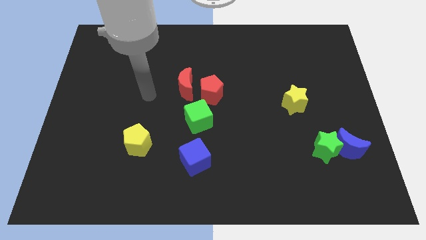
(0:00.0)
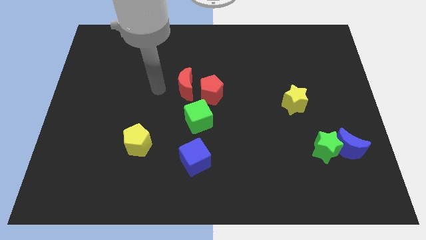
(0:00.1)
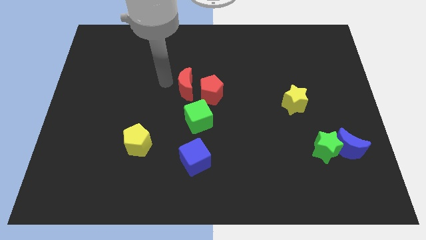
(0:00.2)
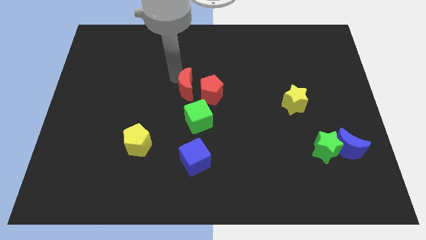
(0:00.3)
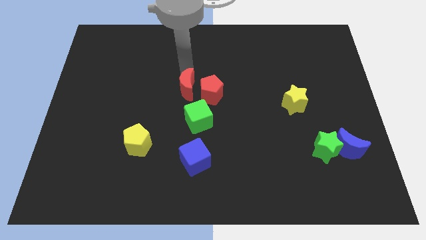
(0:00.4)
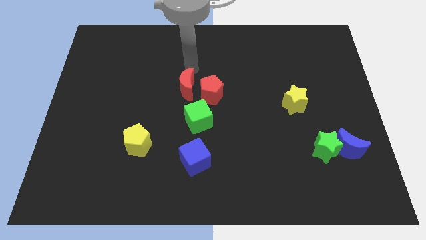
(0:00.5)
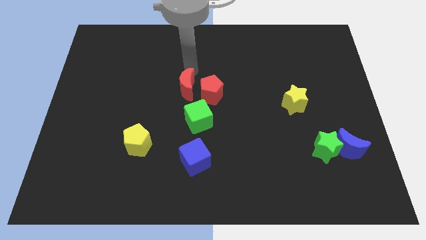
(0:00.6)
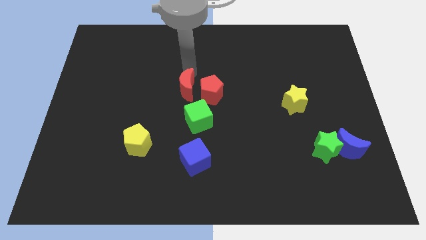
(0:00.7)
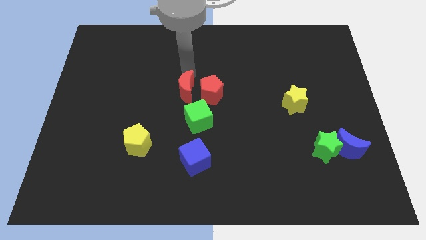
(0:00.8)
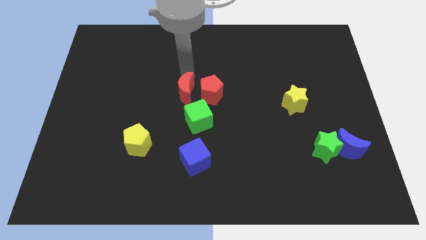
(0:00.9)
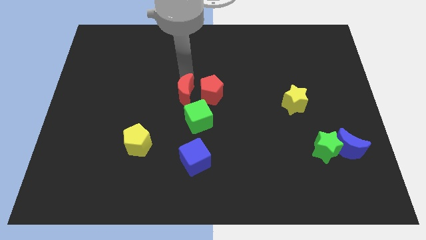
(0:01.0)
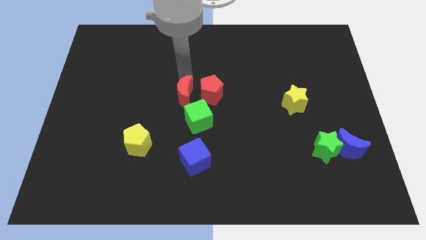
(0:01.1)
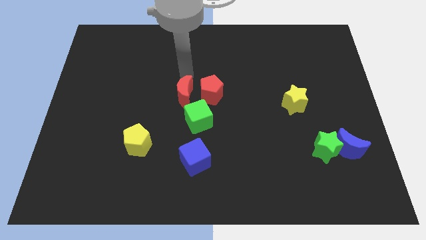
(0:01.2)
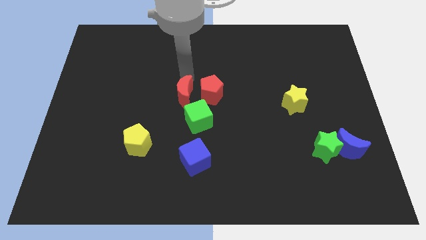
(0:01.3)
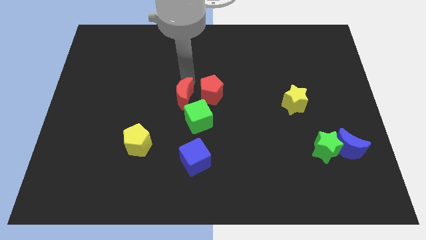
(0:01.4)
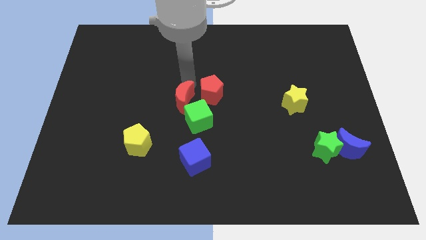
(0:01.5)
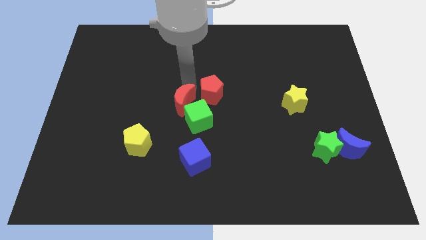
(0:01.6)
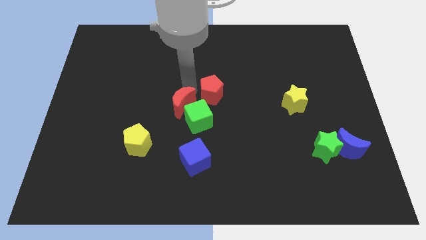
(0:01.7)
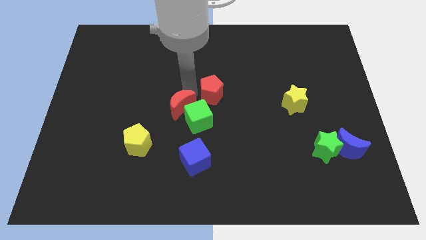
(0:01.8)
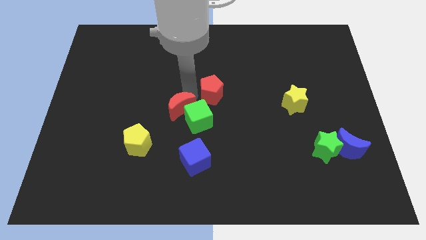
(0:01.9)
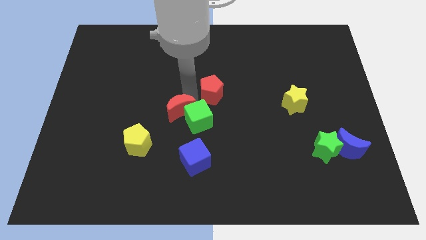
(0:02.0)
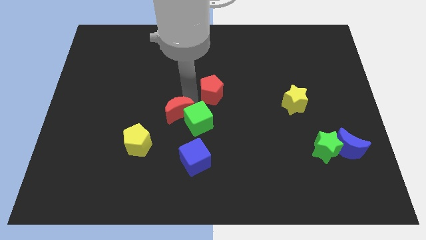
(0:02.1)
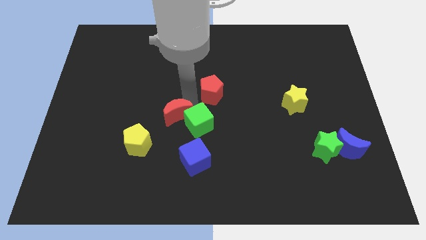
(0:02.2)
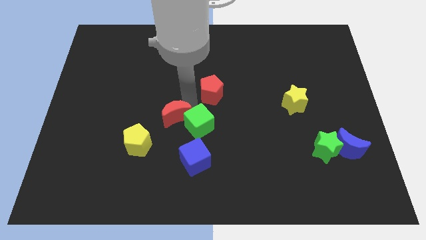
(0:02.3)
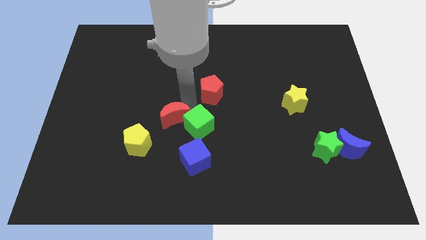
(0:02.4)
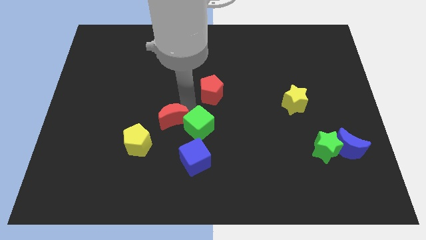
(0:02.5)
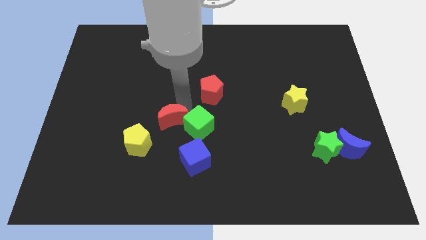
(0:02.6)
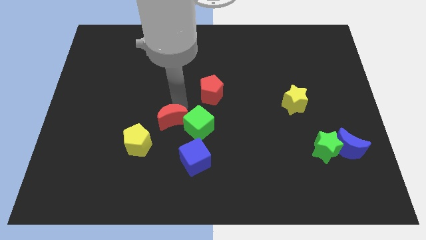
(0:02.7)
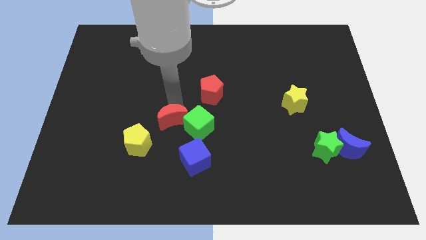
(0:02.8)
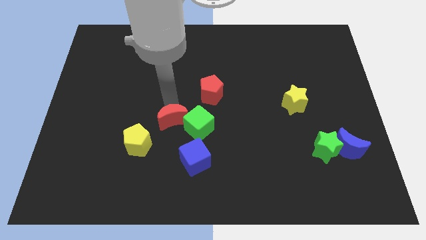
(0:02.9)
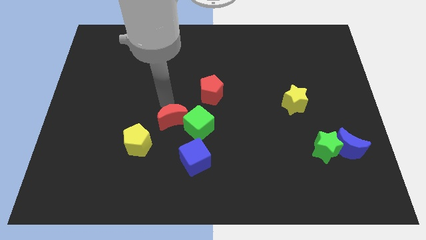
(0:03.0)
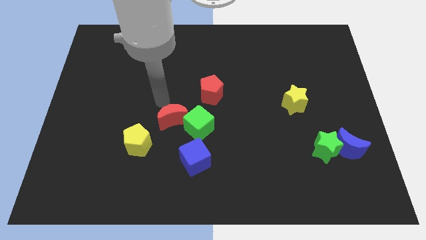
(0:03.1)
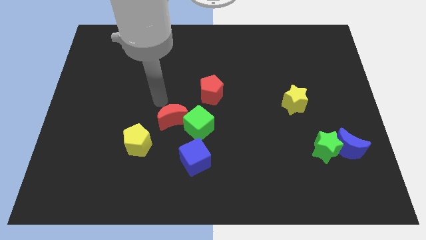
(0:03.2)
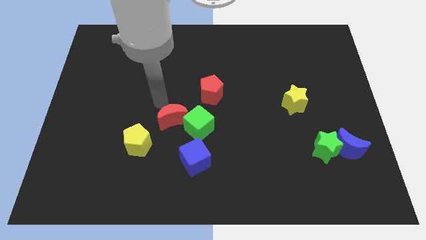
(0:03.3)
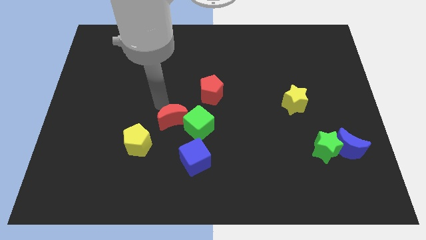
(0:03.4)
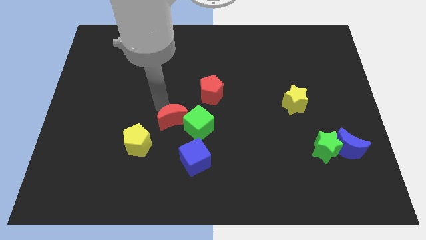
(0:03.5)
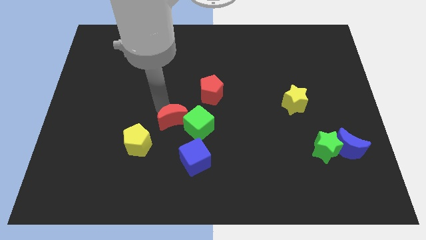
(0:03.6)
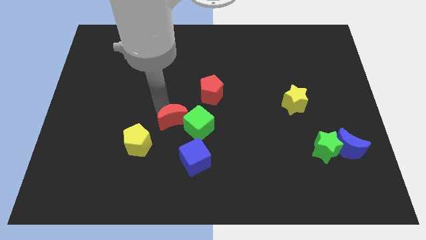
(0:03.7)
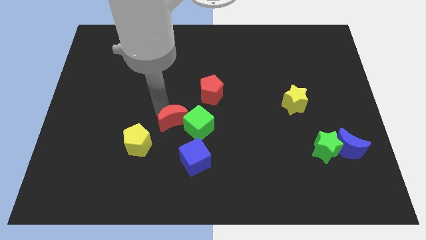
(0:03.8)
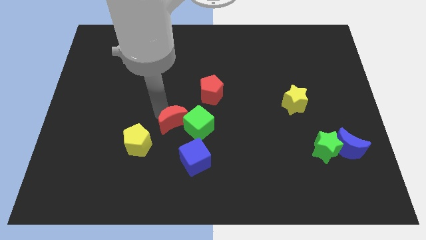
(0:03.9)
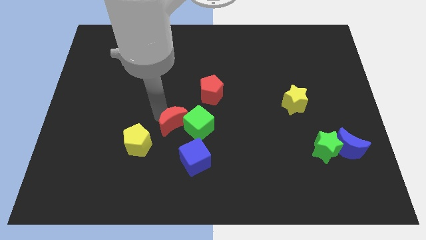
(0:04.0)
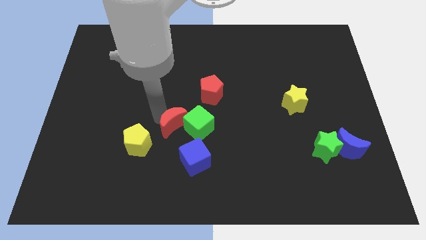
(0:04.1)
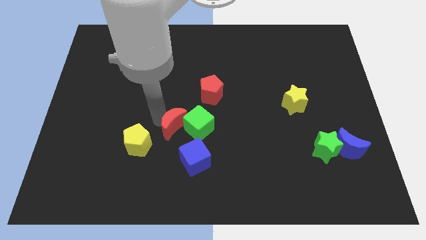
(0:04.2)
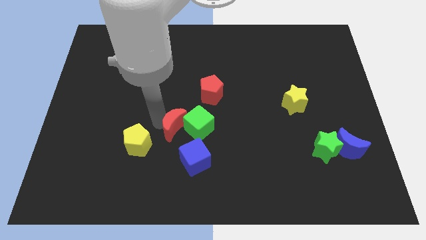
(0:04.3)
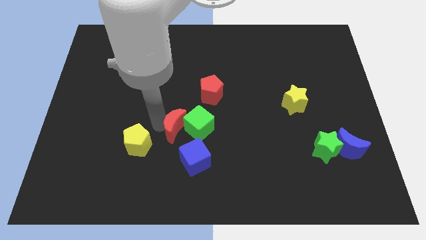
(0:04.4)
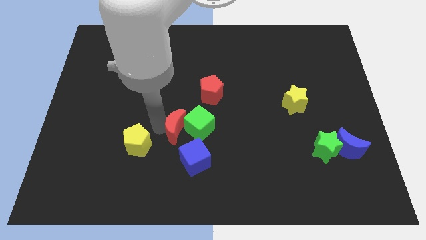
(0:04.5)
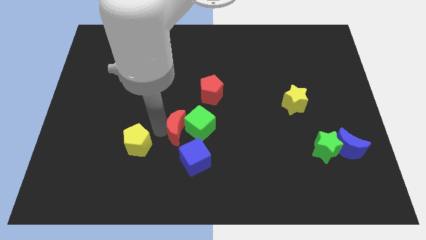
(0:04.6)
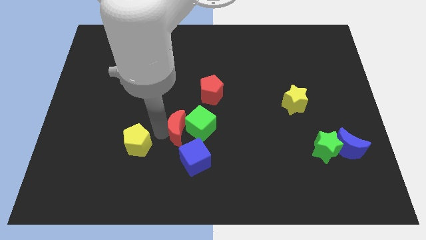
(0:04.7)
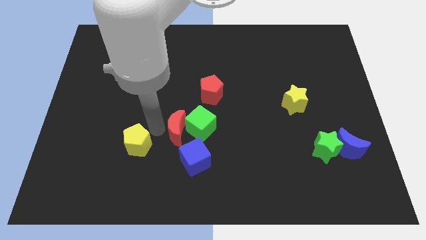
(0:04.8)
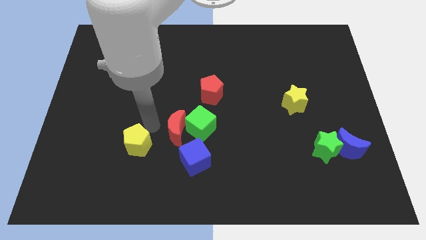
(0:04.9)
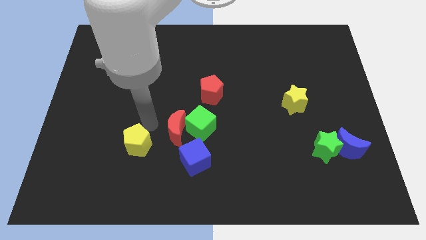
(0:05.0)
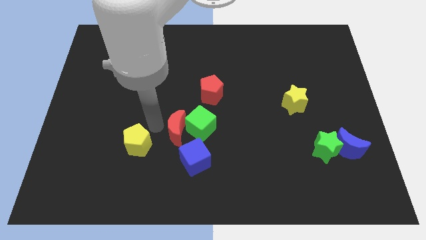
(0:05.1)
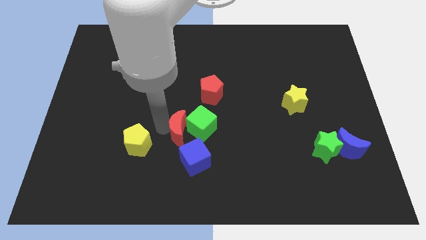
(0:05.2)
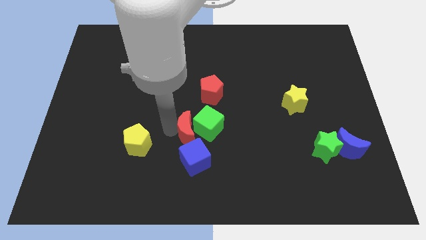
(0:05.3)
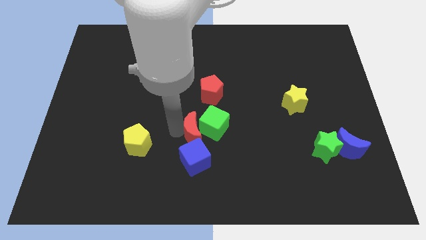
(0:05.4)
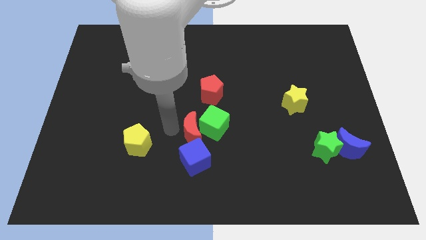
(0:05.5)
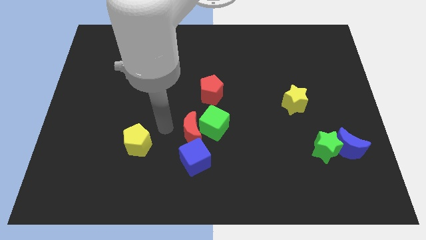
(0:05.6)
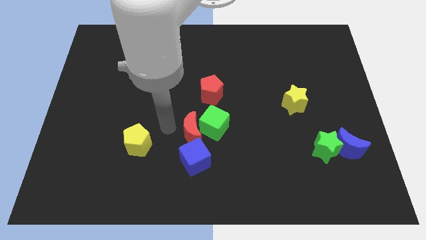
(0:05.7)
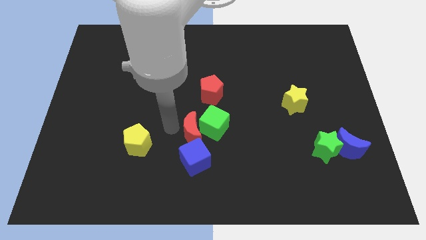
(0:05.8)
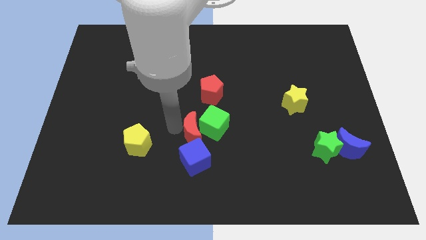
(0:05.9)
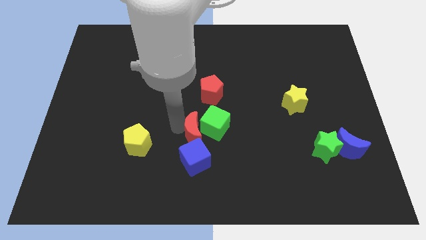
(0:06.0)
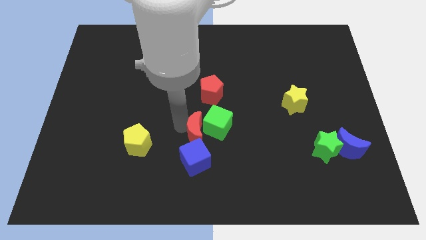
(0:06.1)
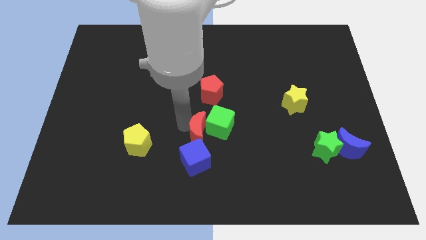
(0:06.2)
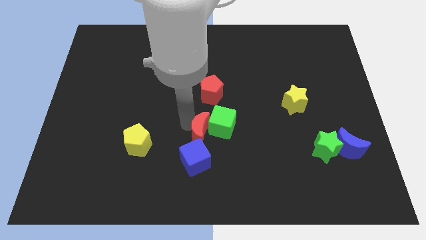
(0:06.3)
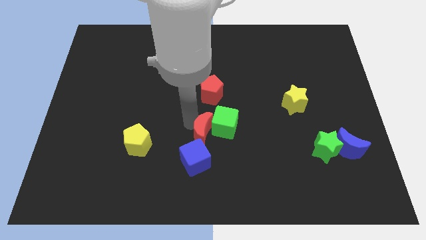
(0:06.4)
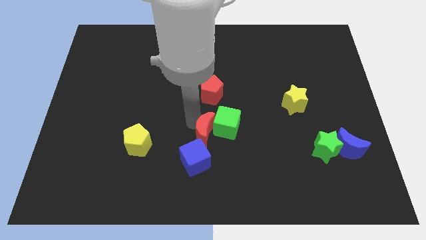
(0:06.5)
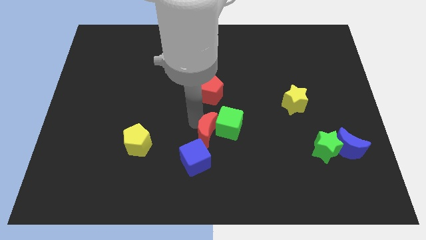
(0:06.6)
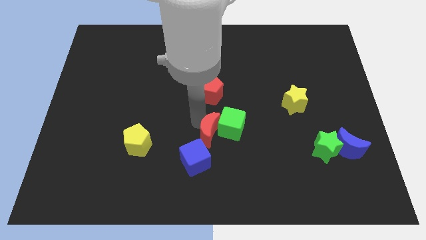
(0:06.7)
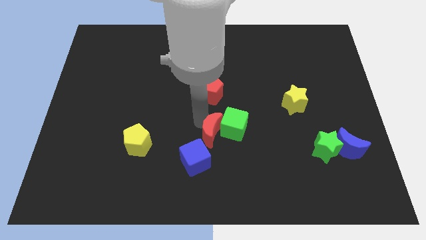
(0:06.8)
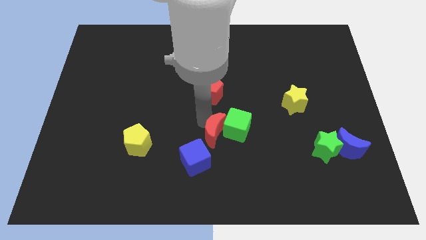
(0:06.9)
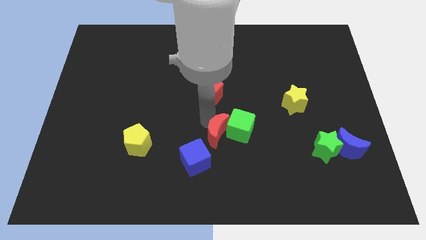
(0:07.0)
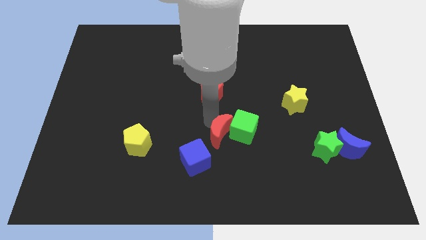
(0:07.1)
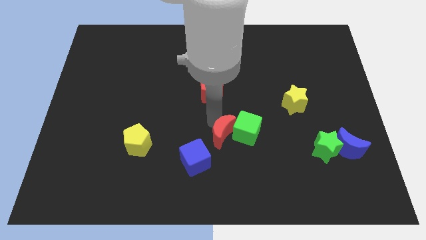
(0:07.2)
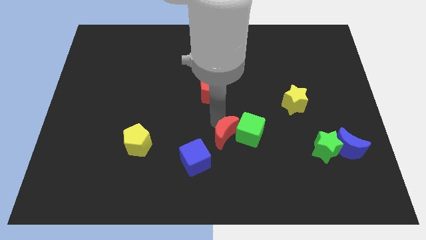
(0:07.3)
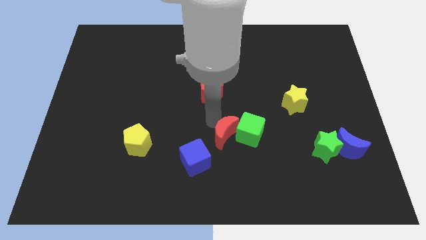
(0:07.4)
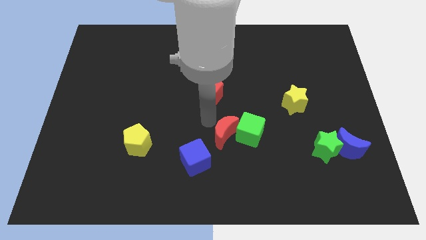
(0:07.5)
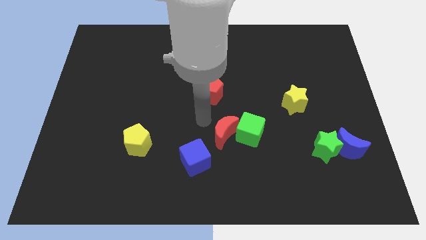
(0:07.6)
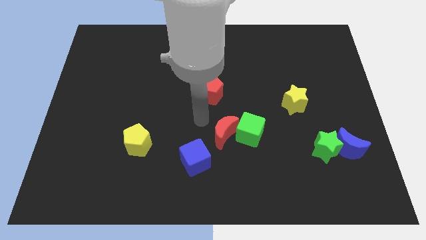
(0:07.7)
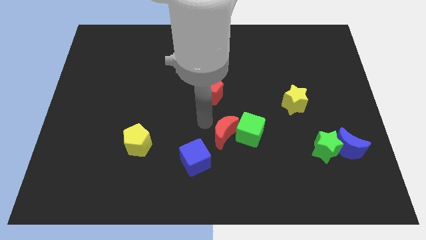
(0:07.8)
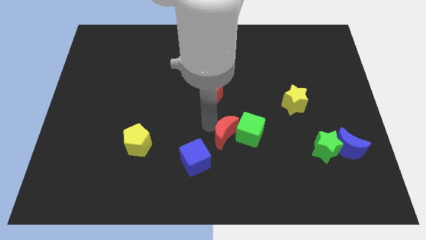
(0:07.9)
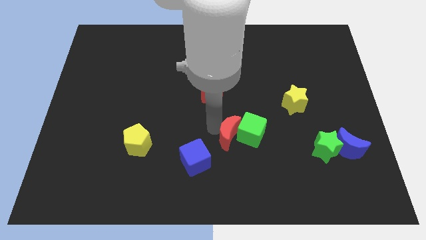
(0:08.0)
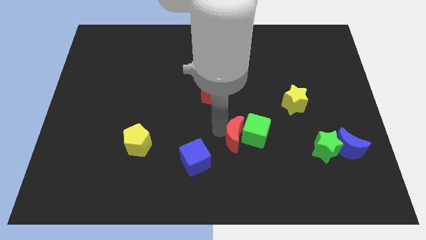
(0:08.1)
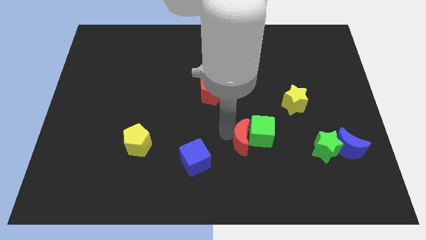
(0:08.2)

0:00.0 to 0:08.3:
slide the red moon down and to the right
